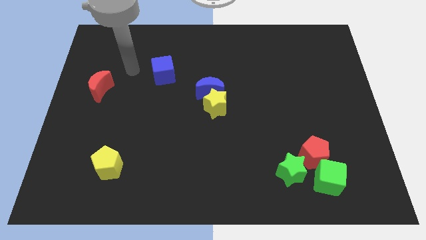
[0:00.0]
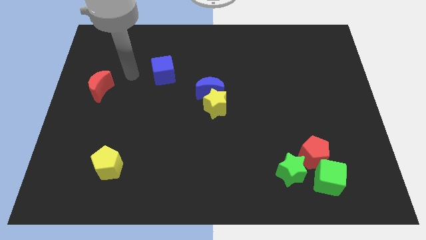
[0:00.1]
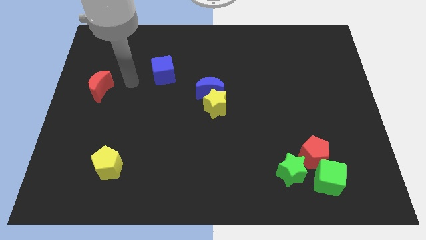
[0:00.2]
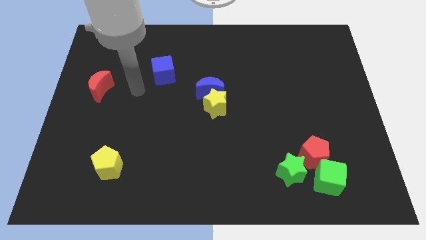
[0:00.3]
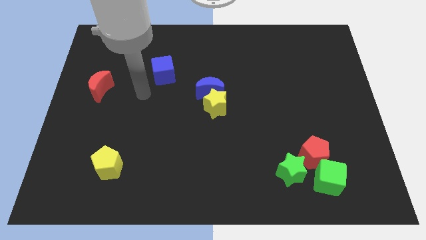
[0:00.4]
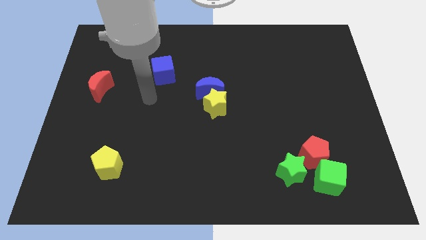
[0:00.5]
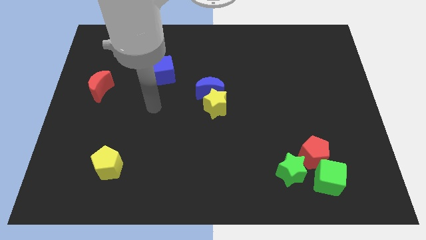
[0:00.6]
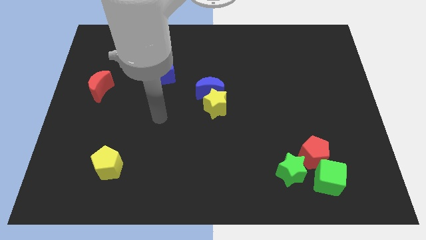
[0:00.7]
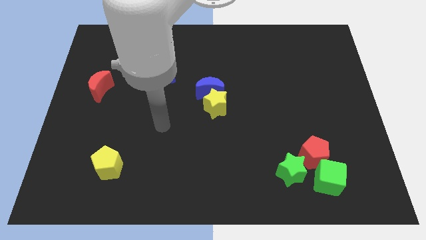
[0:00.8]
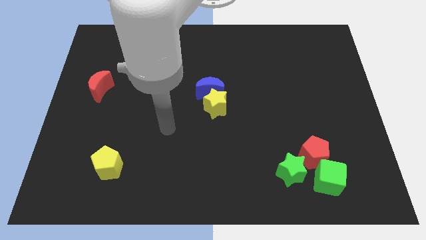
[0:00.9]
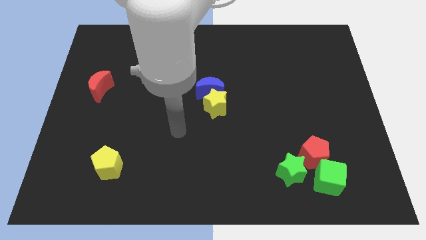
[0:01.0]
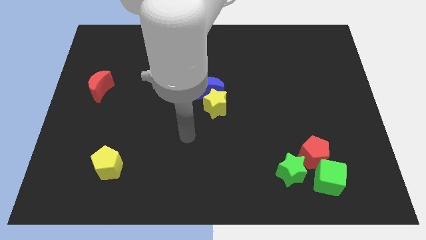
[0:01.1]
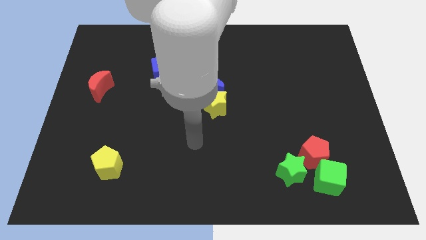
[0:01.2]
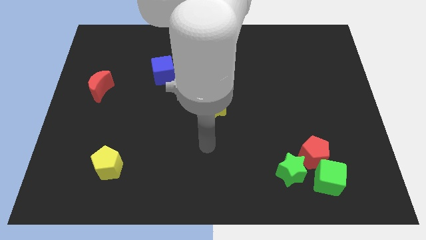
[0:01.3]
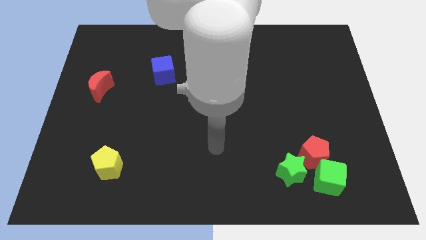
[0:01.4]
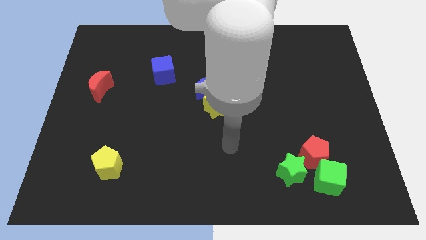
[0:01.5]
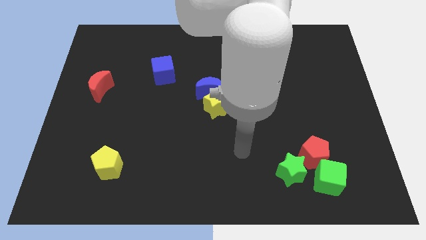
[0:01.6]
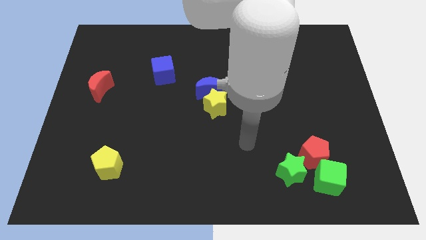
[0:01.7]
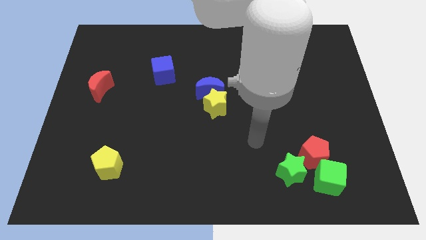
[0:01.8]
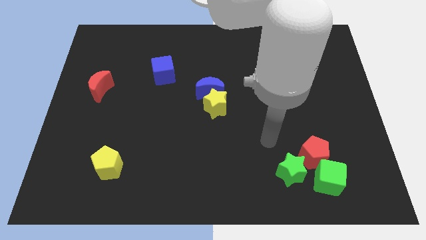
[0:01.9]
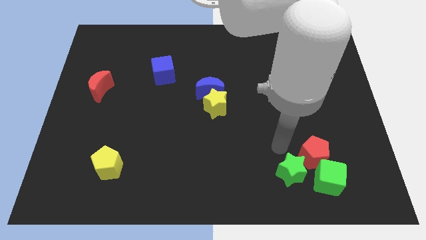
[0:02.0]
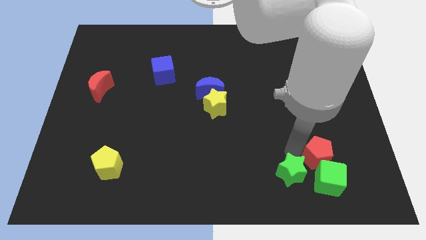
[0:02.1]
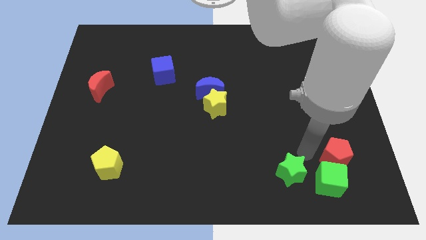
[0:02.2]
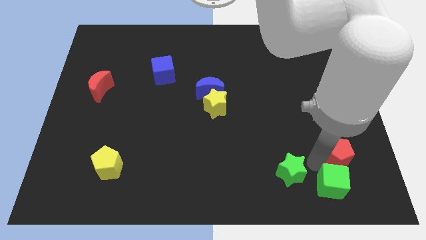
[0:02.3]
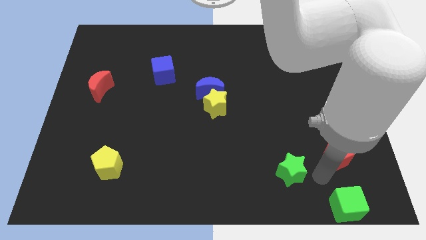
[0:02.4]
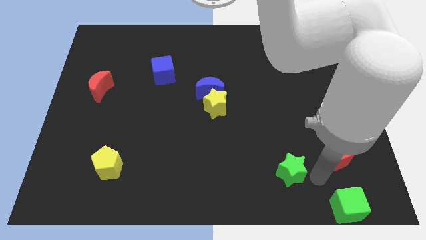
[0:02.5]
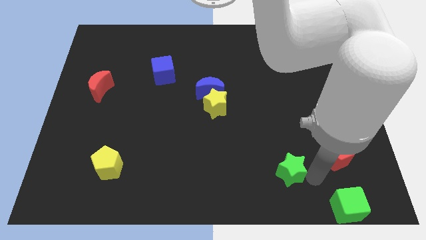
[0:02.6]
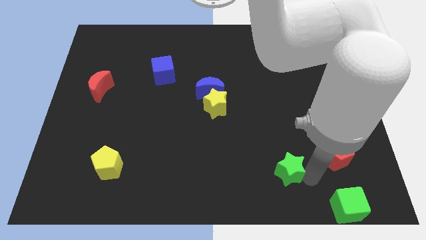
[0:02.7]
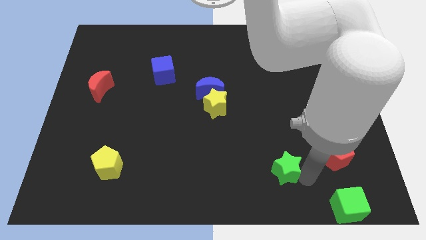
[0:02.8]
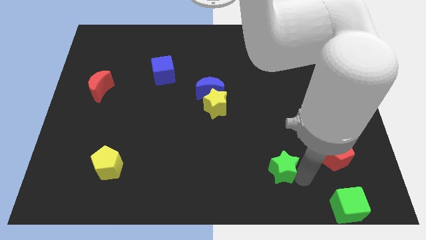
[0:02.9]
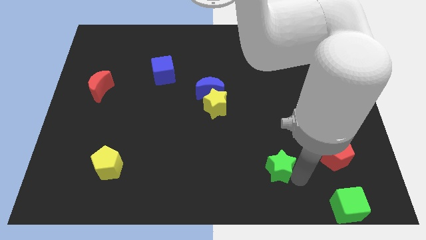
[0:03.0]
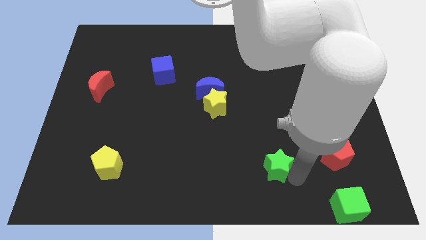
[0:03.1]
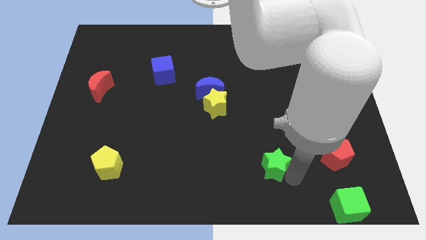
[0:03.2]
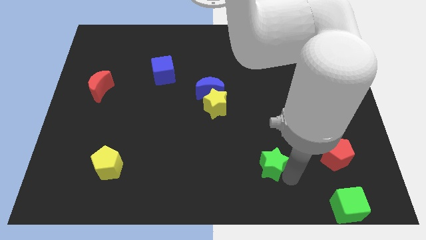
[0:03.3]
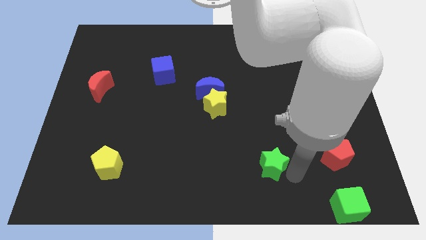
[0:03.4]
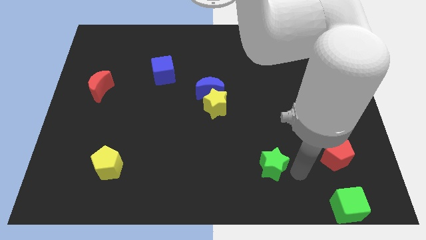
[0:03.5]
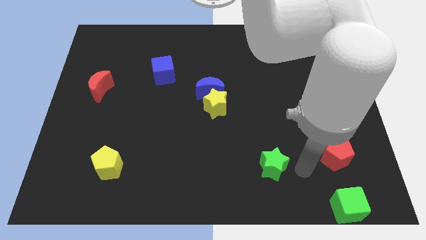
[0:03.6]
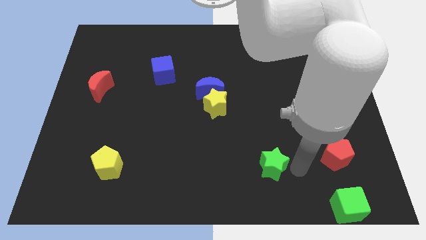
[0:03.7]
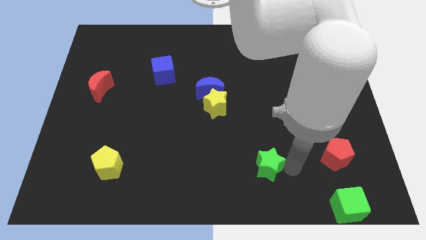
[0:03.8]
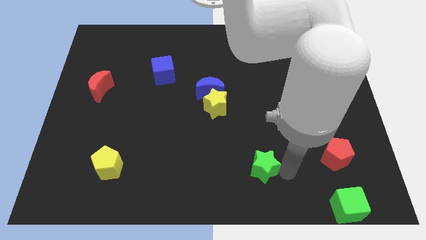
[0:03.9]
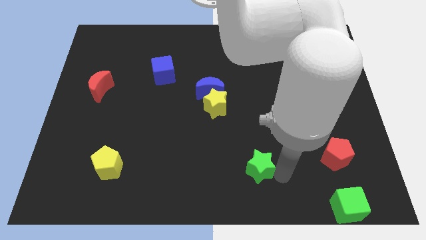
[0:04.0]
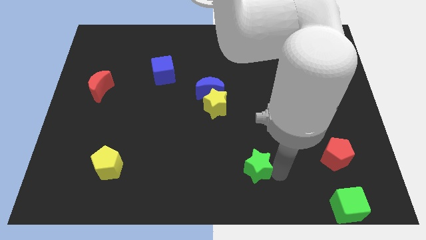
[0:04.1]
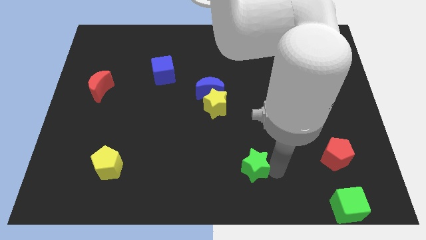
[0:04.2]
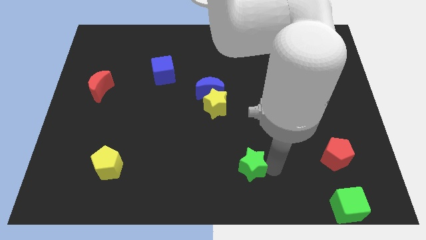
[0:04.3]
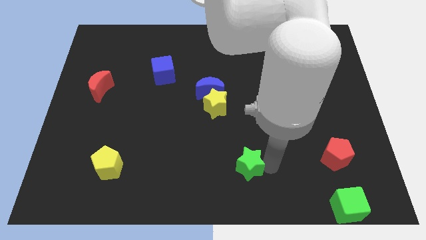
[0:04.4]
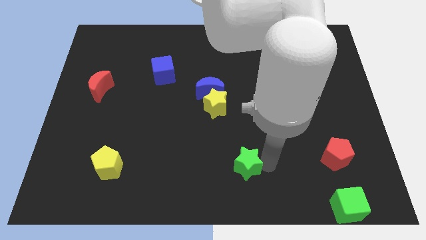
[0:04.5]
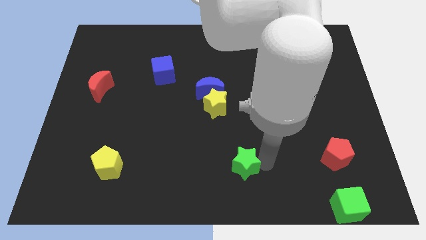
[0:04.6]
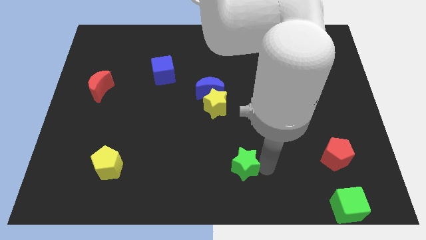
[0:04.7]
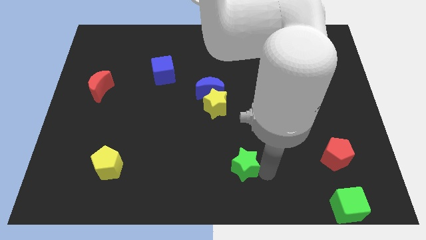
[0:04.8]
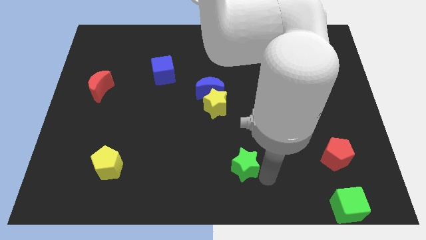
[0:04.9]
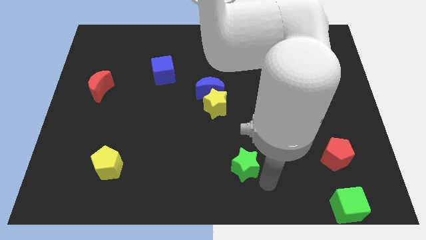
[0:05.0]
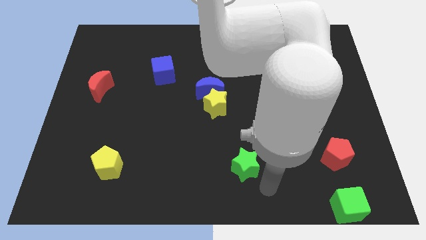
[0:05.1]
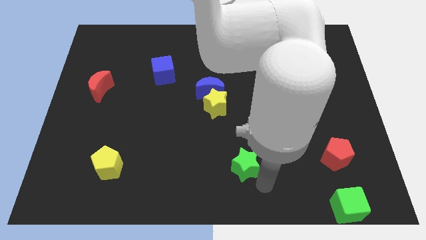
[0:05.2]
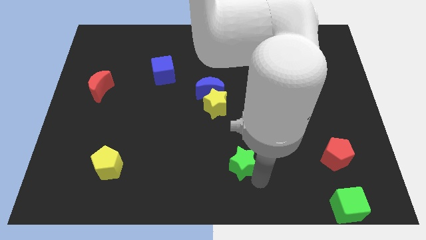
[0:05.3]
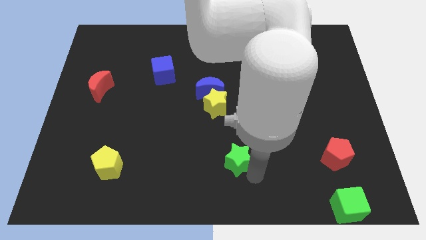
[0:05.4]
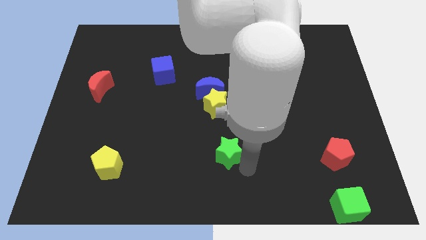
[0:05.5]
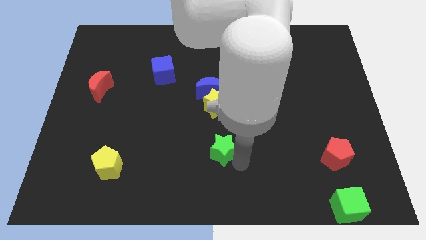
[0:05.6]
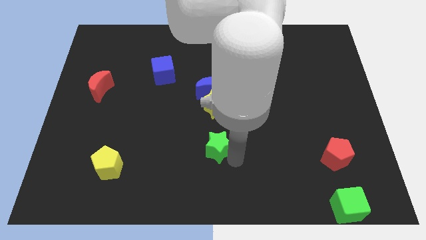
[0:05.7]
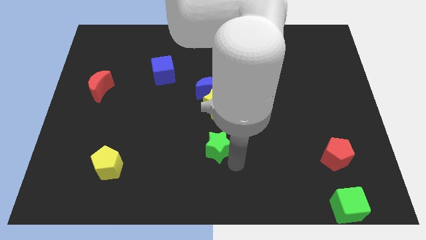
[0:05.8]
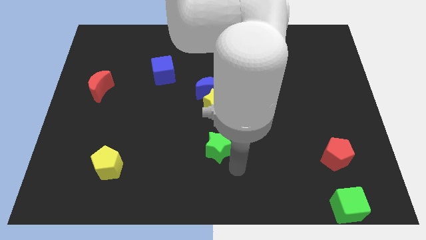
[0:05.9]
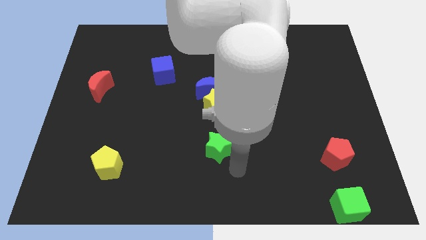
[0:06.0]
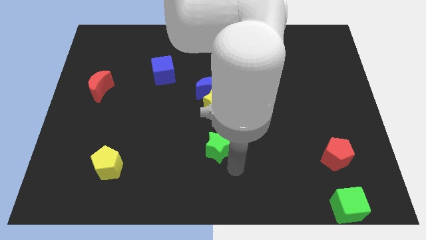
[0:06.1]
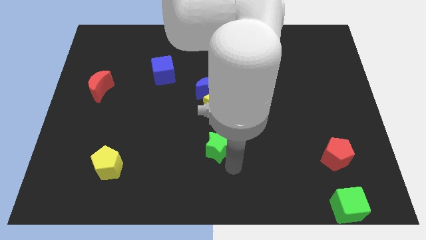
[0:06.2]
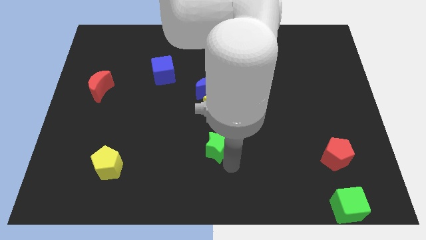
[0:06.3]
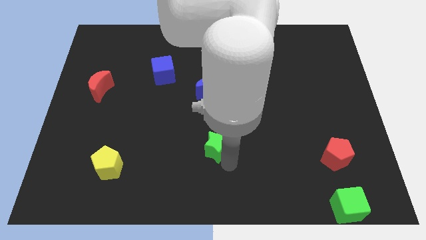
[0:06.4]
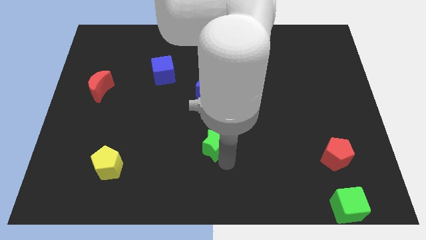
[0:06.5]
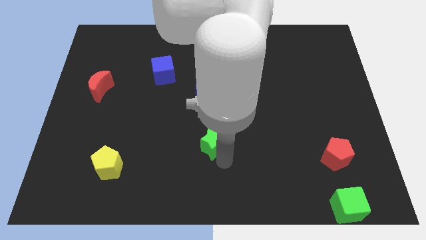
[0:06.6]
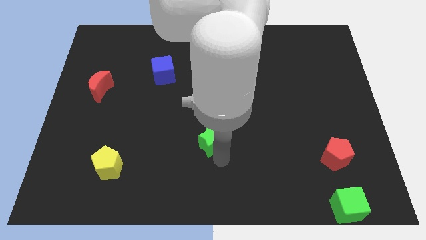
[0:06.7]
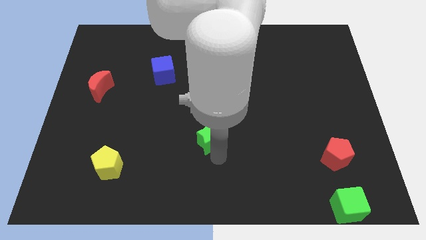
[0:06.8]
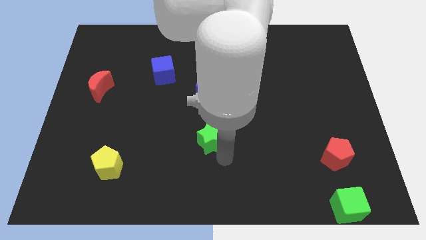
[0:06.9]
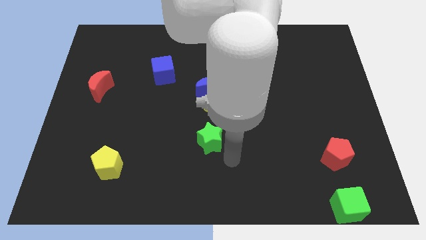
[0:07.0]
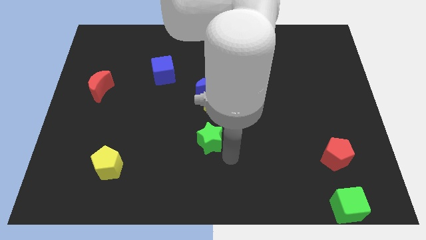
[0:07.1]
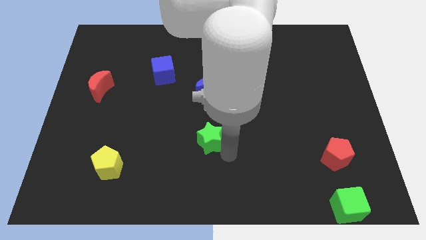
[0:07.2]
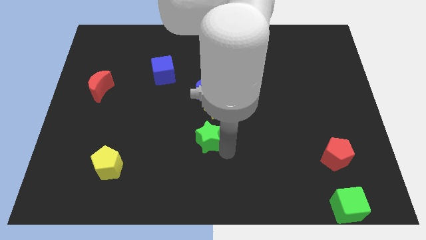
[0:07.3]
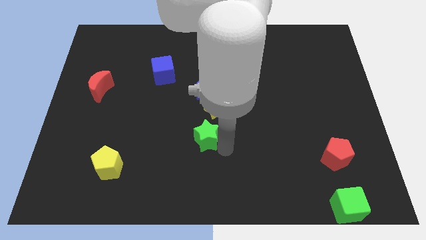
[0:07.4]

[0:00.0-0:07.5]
move the green star to the bottom left side of the yellow star
